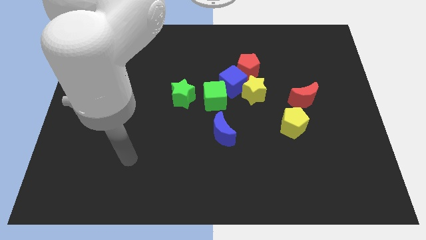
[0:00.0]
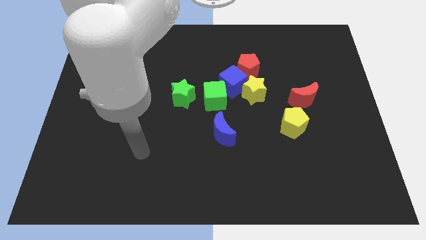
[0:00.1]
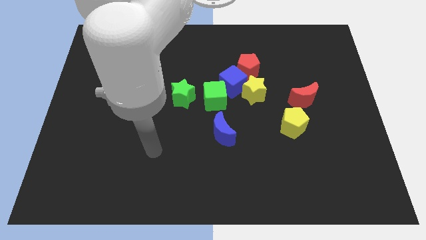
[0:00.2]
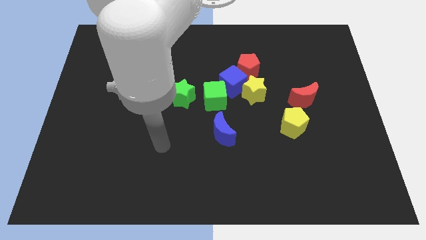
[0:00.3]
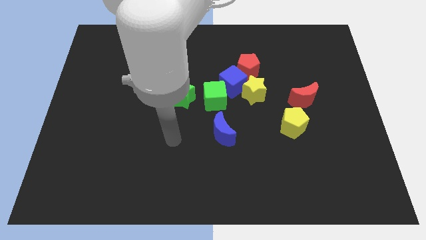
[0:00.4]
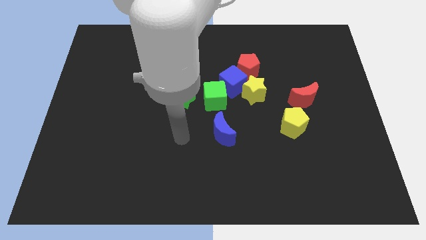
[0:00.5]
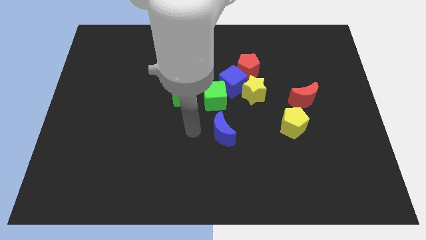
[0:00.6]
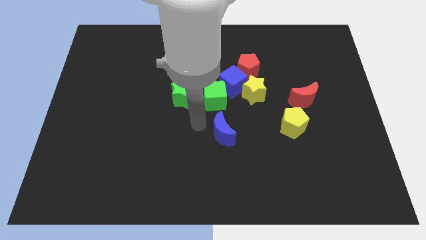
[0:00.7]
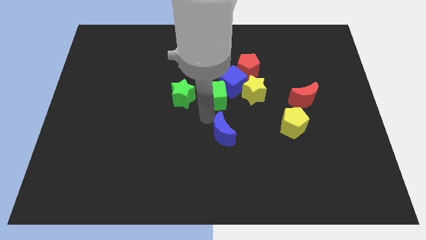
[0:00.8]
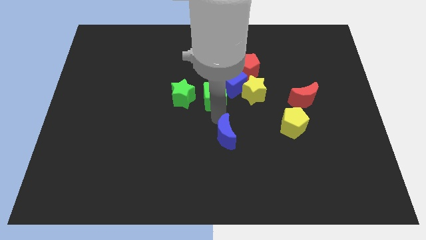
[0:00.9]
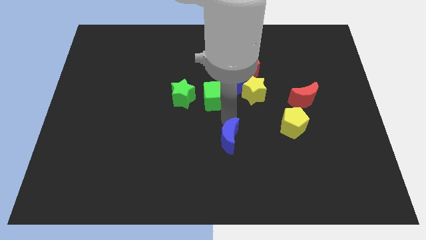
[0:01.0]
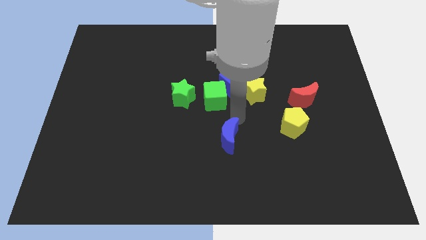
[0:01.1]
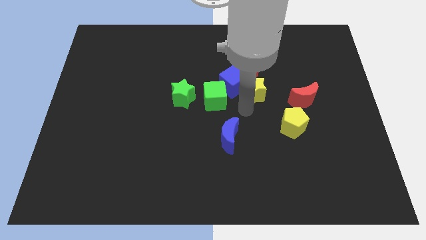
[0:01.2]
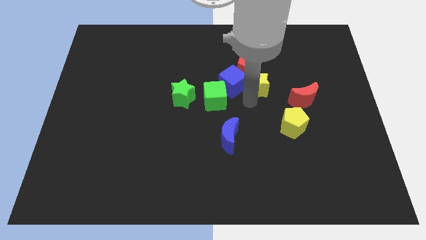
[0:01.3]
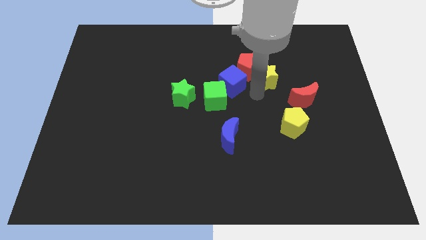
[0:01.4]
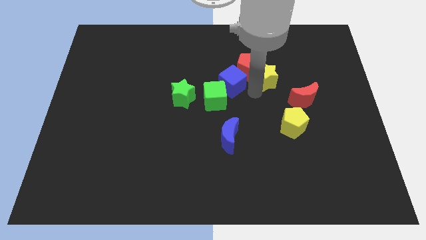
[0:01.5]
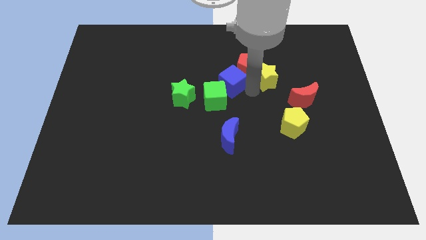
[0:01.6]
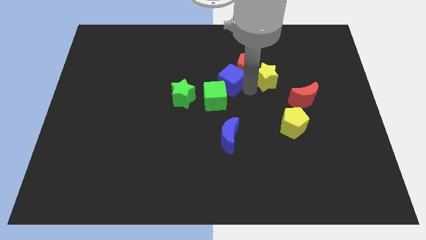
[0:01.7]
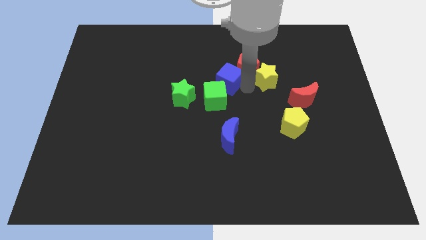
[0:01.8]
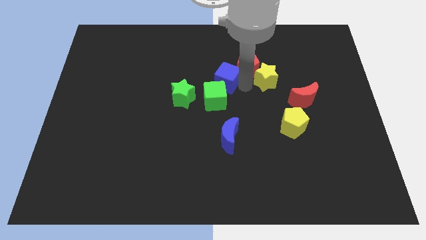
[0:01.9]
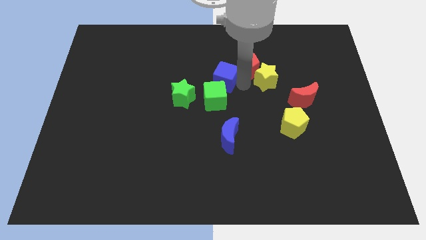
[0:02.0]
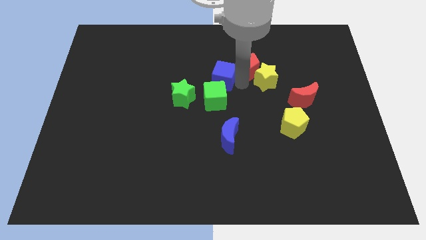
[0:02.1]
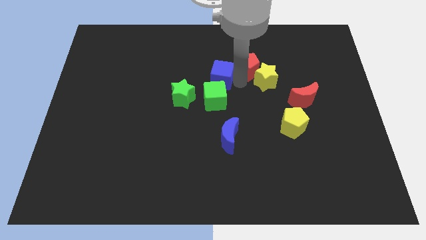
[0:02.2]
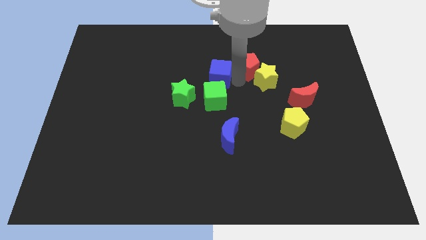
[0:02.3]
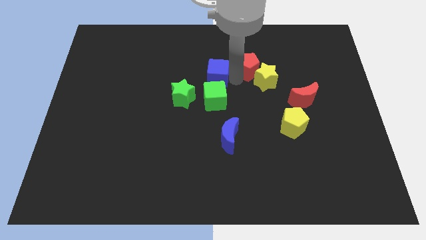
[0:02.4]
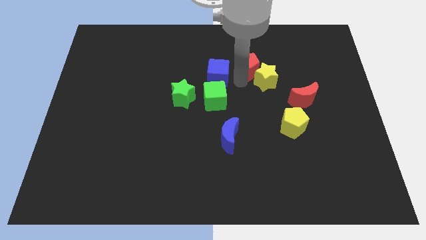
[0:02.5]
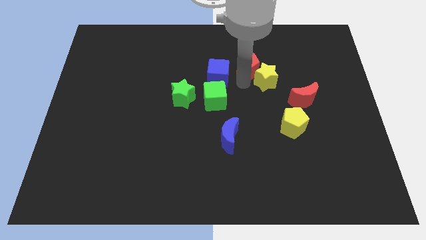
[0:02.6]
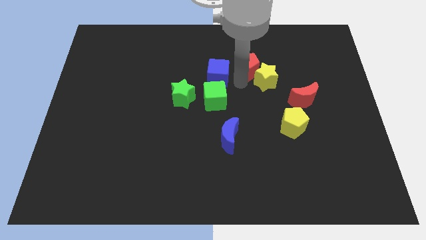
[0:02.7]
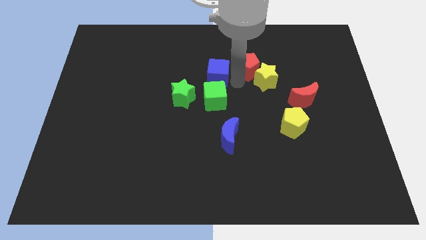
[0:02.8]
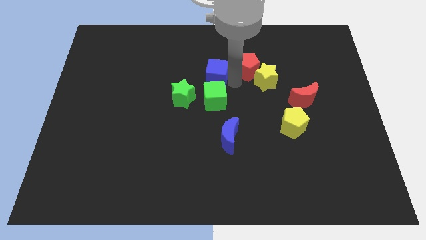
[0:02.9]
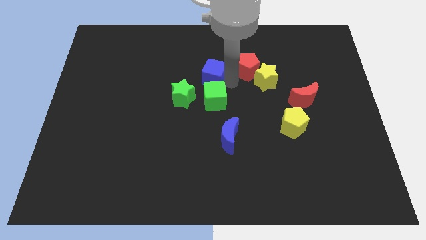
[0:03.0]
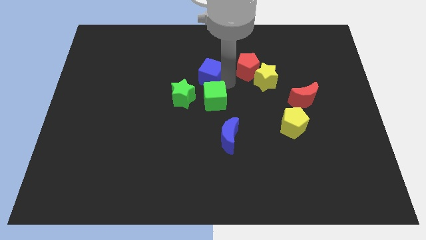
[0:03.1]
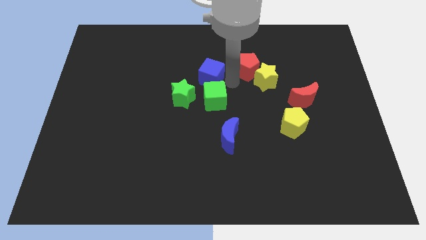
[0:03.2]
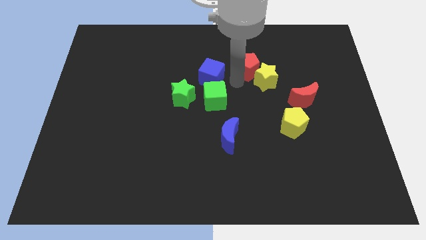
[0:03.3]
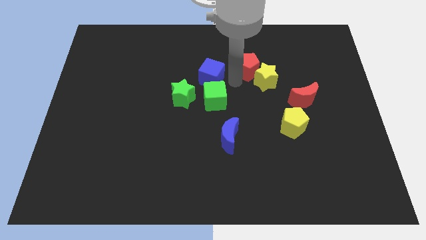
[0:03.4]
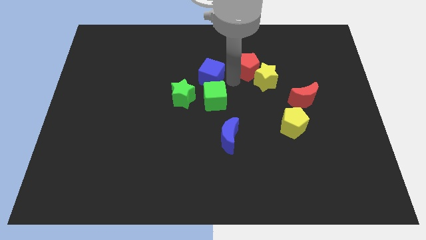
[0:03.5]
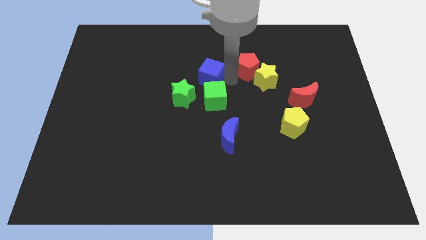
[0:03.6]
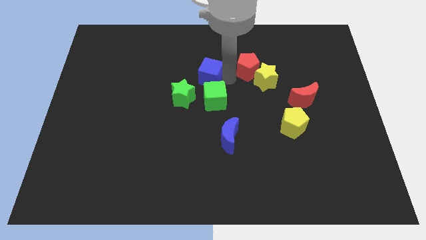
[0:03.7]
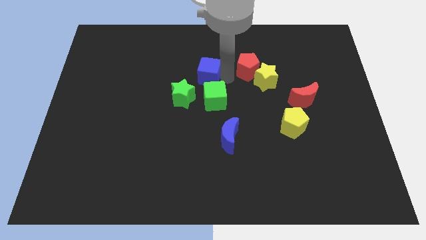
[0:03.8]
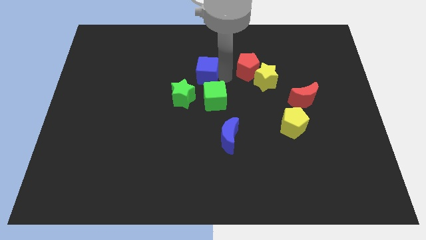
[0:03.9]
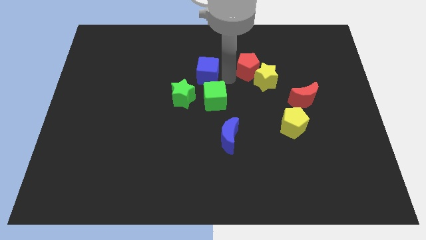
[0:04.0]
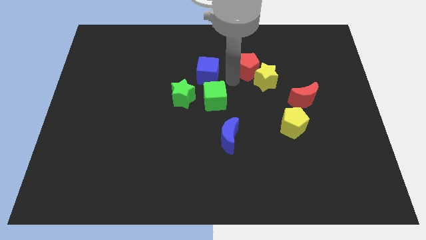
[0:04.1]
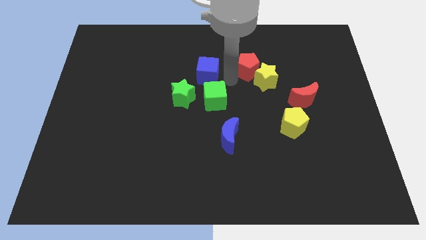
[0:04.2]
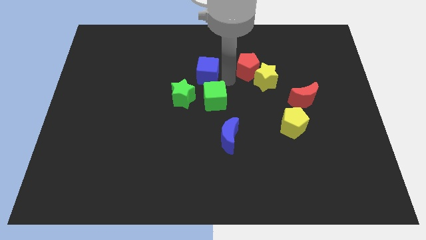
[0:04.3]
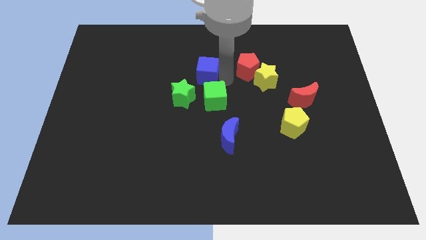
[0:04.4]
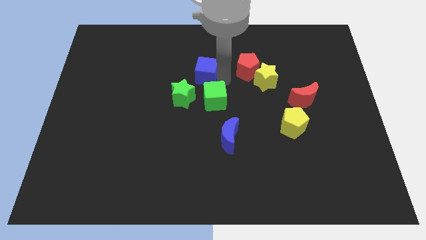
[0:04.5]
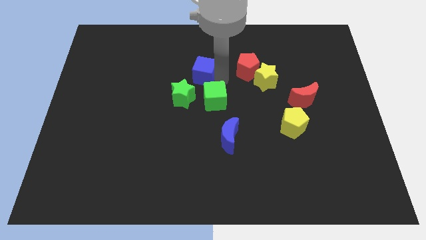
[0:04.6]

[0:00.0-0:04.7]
move the blue cube away from the yellow star, green cube, and red pentagon

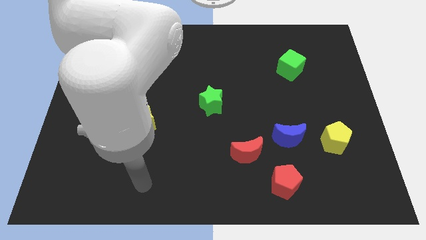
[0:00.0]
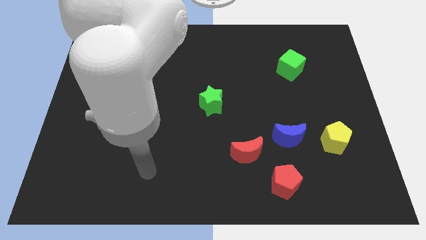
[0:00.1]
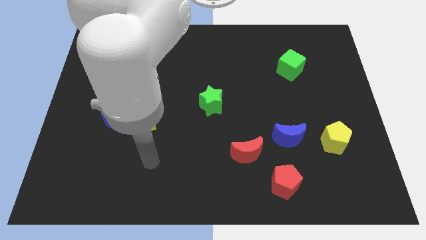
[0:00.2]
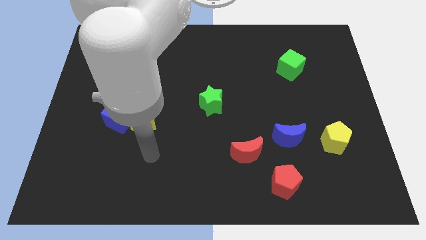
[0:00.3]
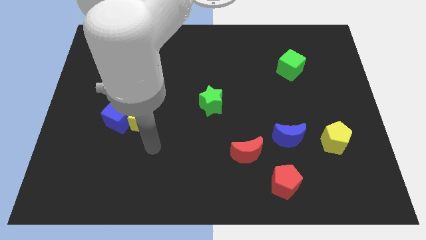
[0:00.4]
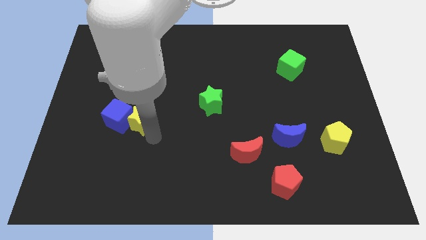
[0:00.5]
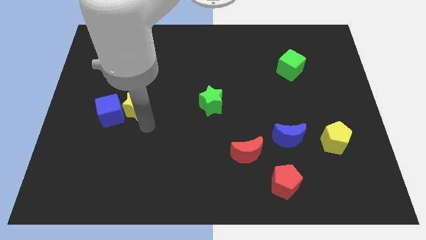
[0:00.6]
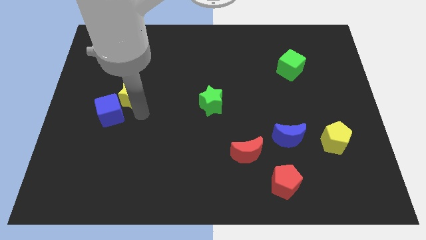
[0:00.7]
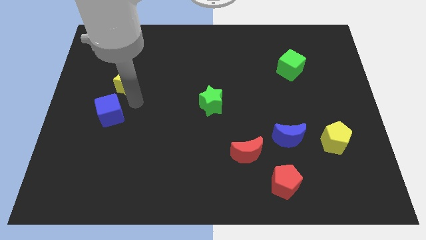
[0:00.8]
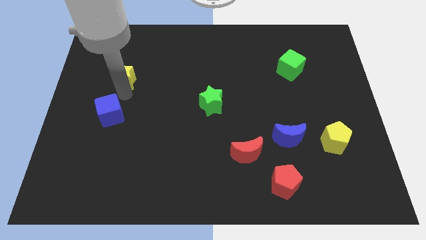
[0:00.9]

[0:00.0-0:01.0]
move the blue cube away from the yellow star

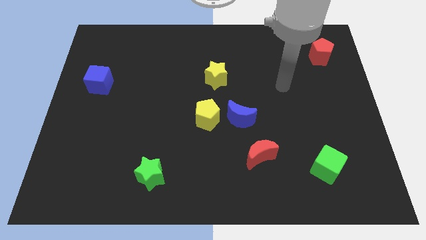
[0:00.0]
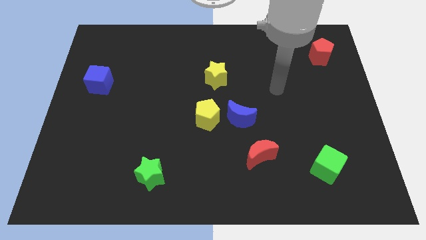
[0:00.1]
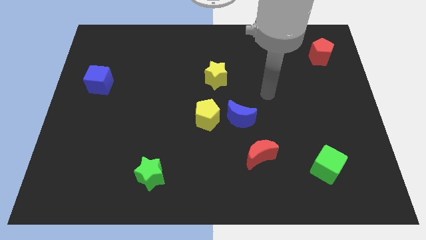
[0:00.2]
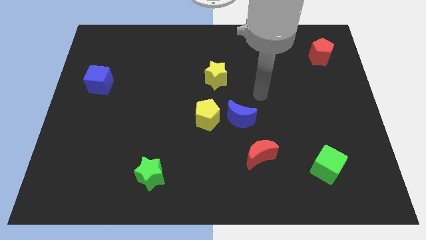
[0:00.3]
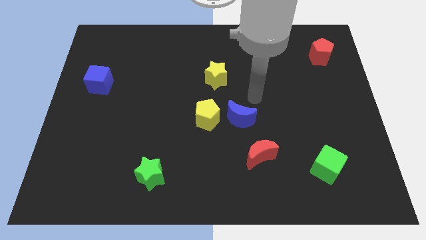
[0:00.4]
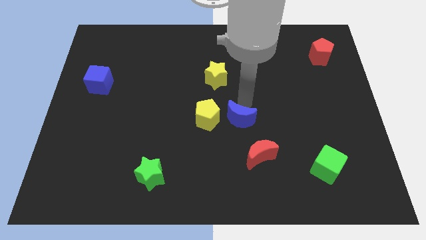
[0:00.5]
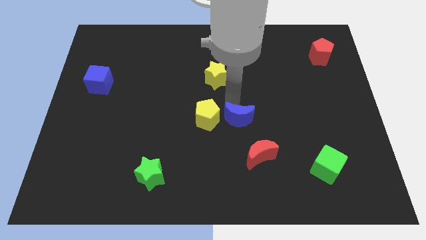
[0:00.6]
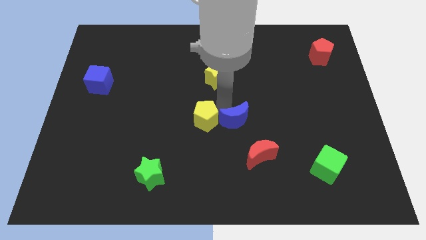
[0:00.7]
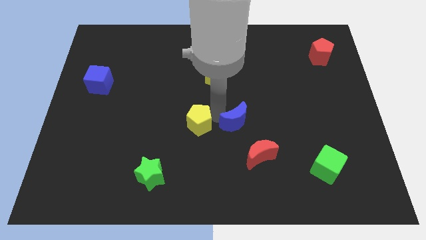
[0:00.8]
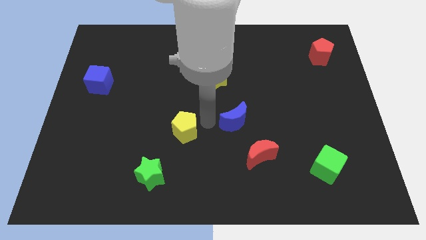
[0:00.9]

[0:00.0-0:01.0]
pull the blue moon apart from the yellow pentagon

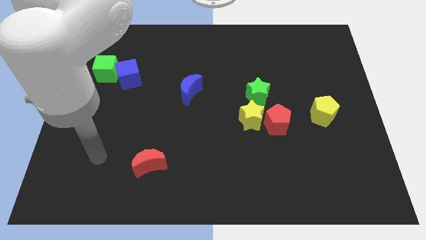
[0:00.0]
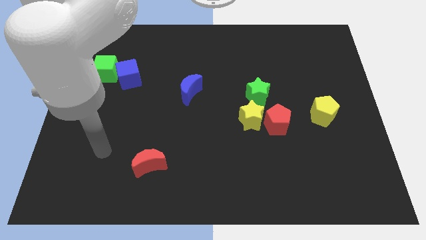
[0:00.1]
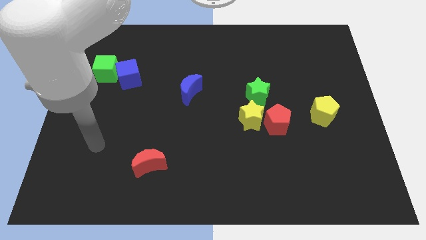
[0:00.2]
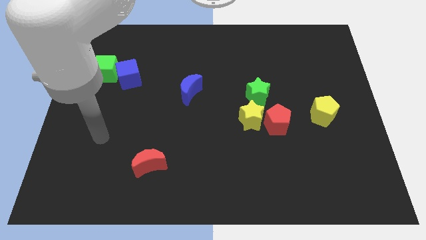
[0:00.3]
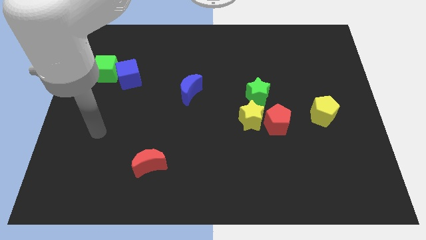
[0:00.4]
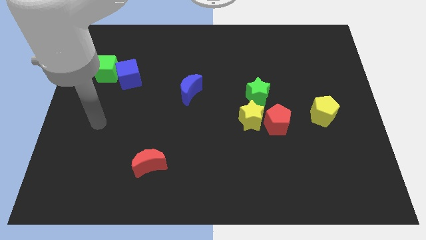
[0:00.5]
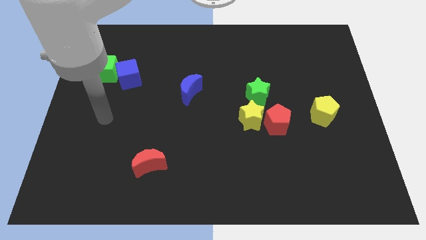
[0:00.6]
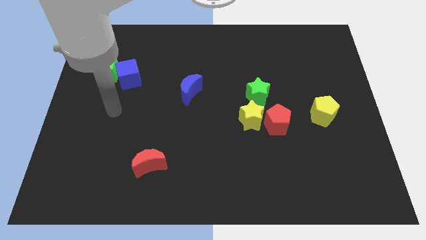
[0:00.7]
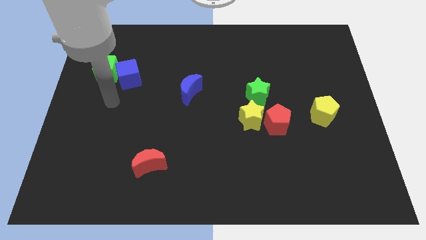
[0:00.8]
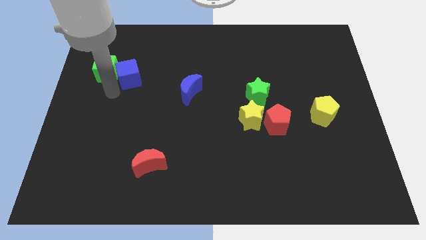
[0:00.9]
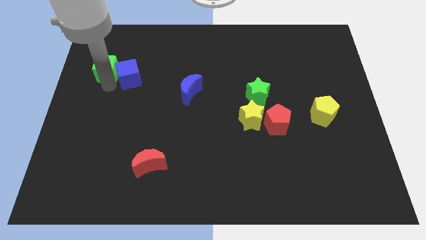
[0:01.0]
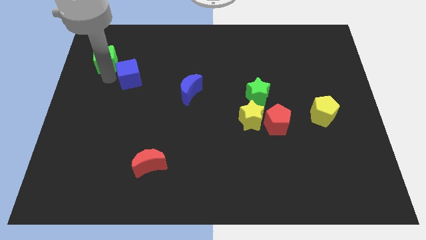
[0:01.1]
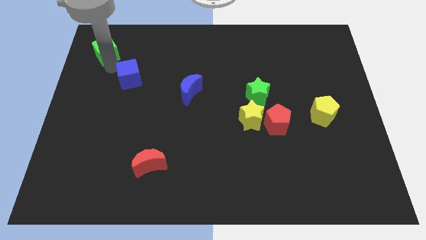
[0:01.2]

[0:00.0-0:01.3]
separate the blue cube from the green cube

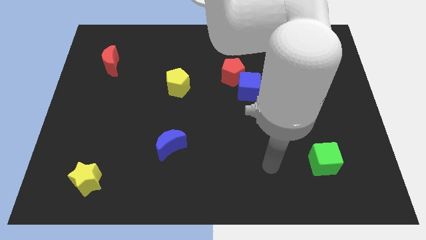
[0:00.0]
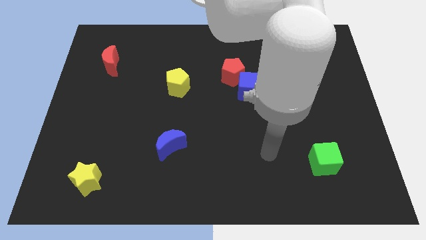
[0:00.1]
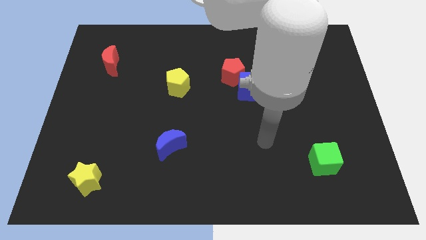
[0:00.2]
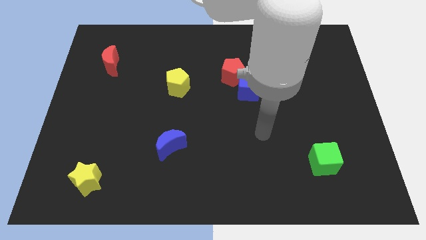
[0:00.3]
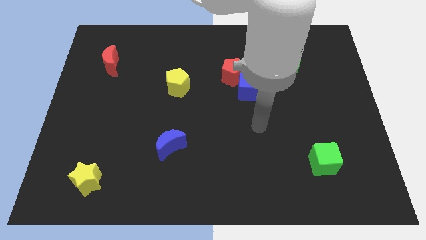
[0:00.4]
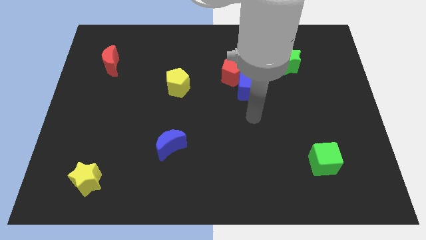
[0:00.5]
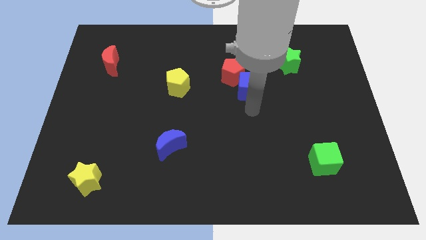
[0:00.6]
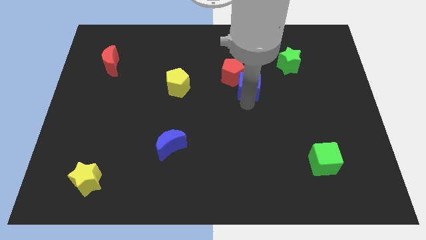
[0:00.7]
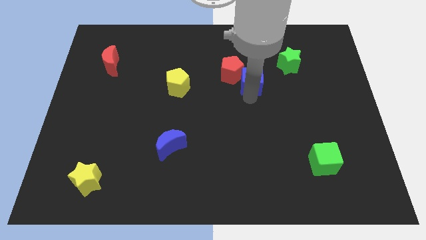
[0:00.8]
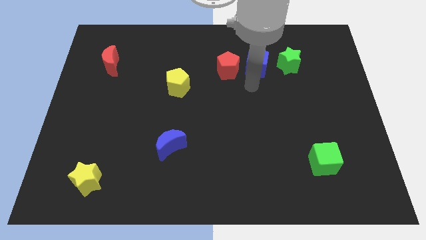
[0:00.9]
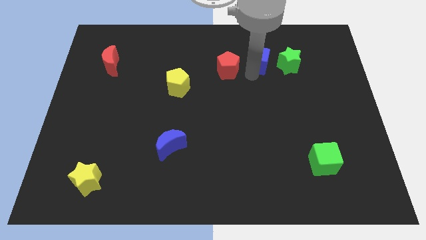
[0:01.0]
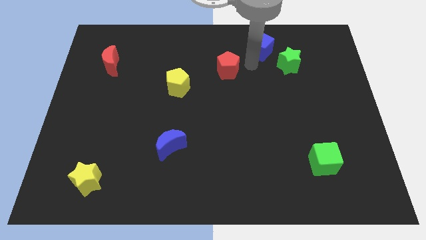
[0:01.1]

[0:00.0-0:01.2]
move the red pentagon away from the blue cube

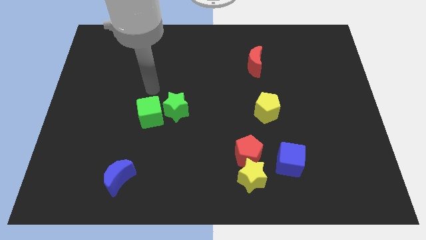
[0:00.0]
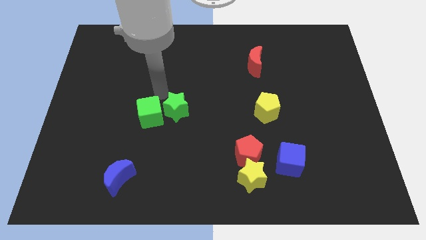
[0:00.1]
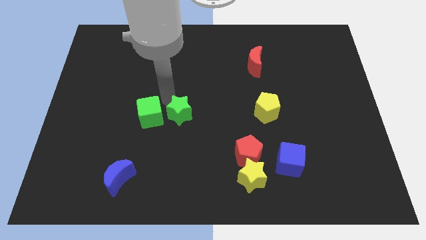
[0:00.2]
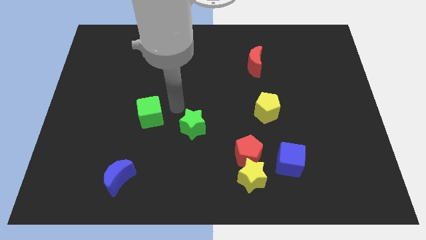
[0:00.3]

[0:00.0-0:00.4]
pull the green cube apart from the green star
